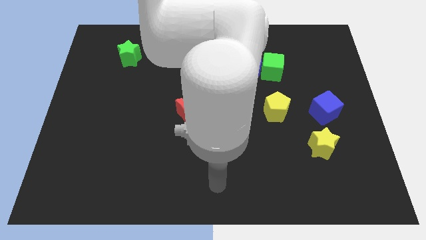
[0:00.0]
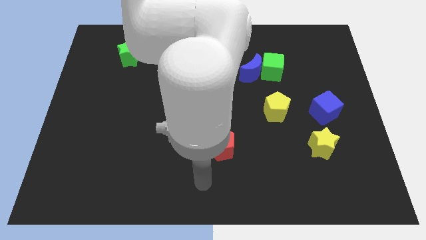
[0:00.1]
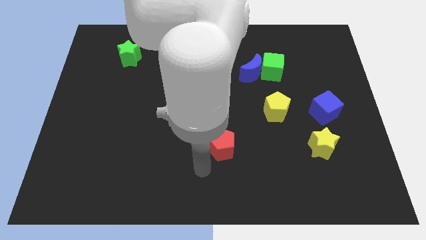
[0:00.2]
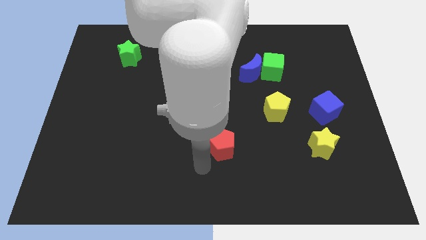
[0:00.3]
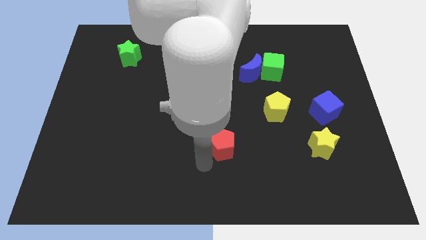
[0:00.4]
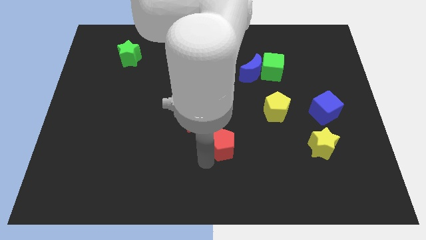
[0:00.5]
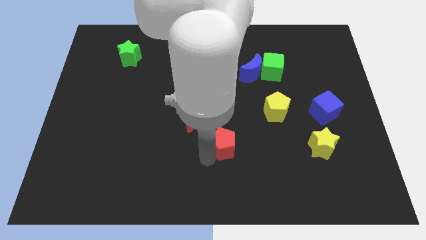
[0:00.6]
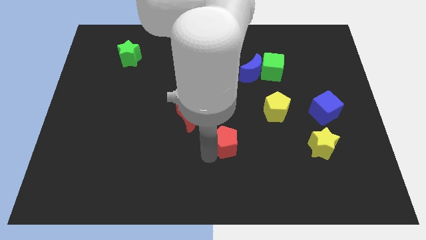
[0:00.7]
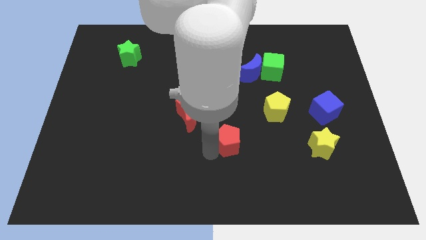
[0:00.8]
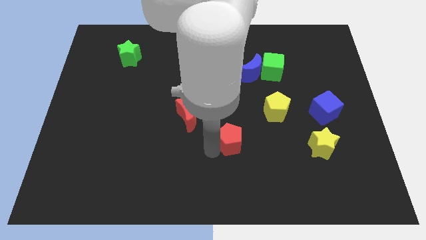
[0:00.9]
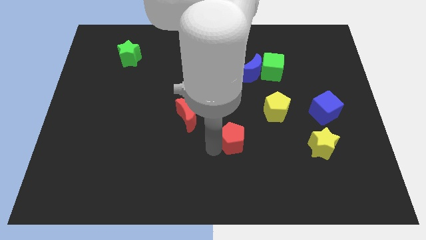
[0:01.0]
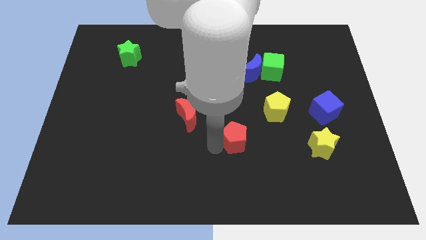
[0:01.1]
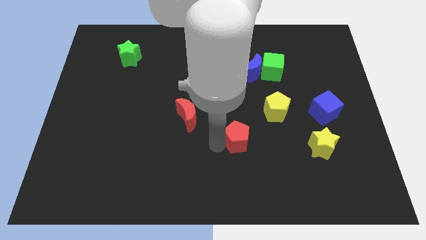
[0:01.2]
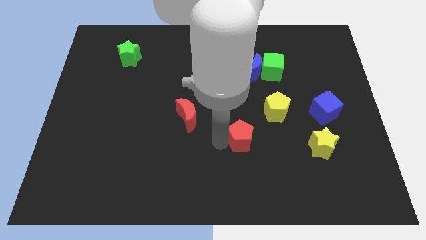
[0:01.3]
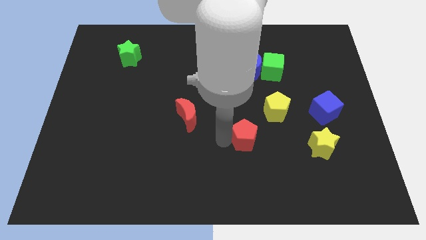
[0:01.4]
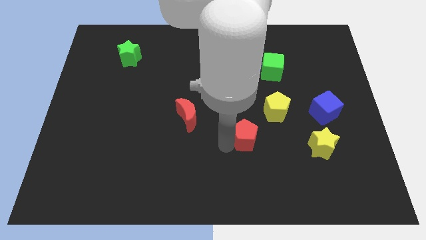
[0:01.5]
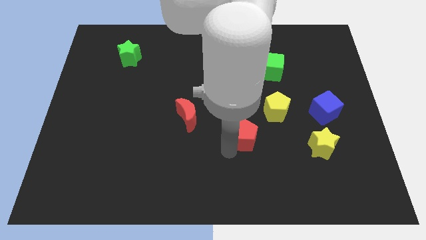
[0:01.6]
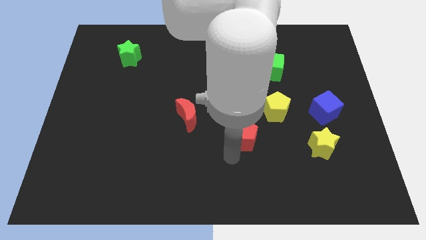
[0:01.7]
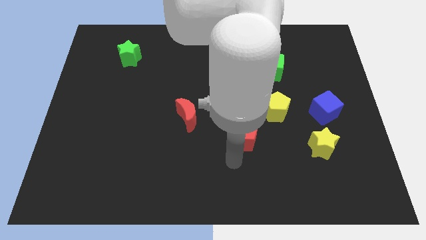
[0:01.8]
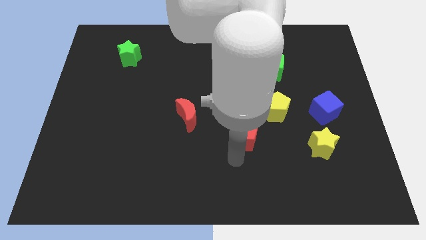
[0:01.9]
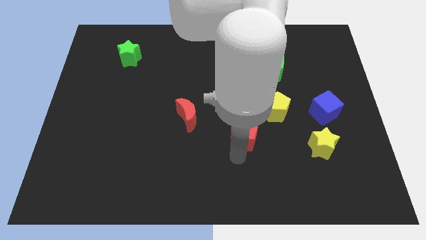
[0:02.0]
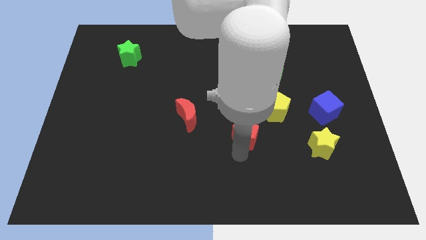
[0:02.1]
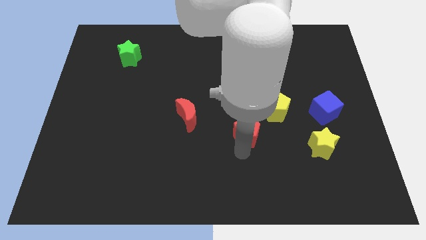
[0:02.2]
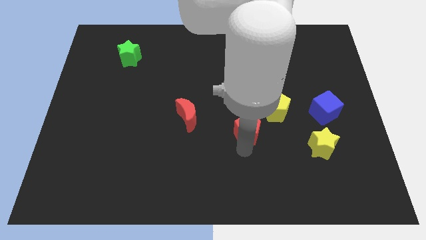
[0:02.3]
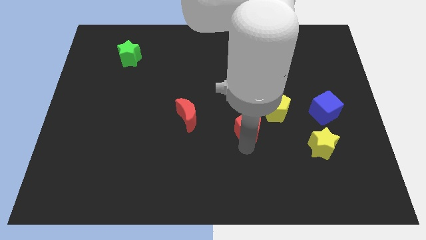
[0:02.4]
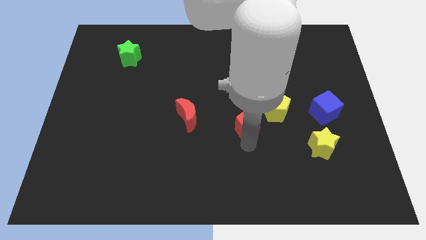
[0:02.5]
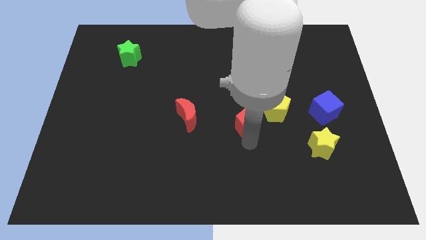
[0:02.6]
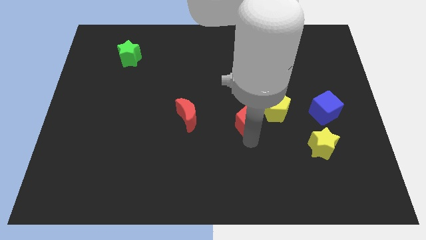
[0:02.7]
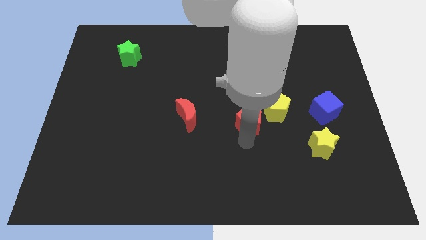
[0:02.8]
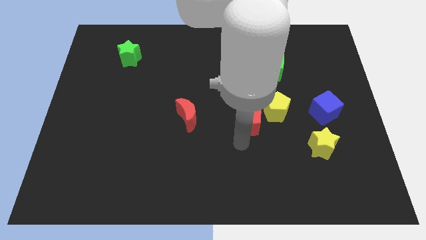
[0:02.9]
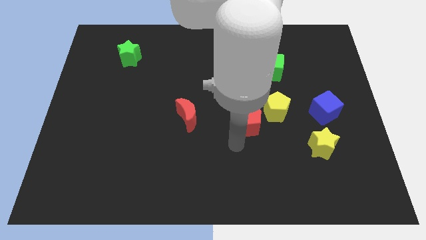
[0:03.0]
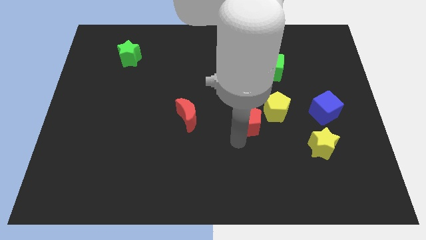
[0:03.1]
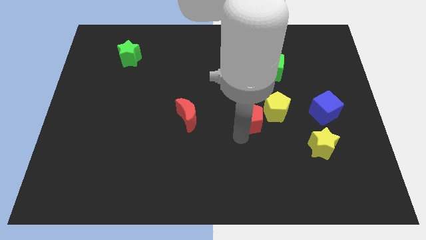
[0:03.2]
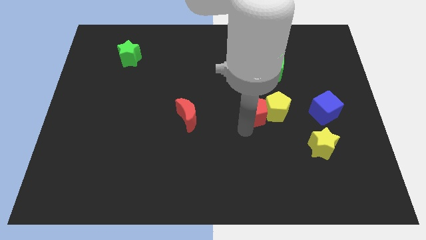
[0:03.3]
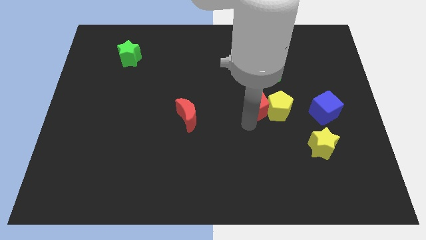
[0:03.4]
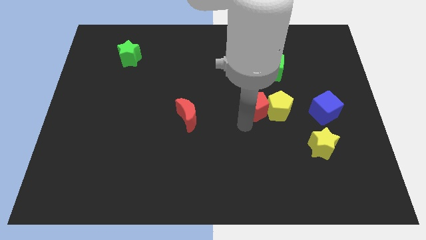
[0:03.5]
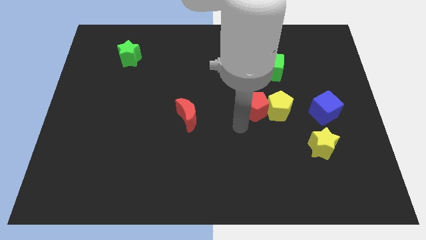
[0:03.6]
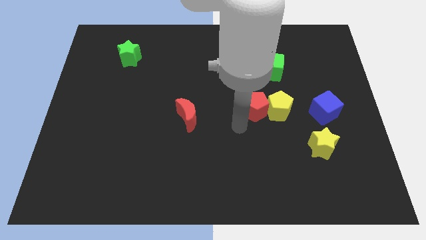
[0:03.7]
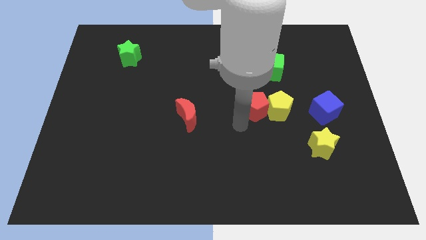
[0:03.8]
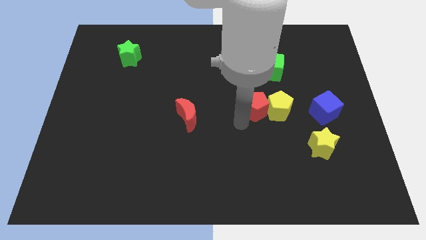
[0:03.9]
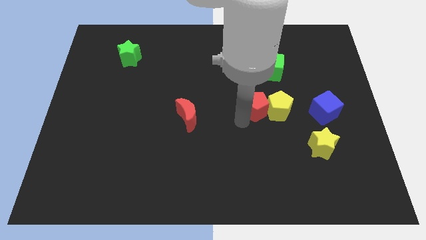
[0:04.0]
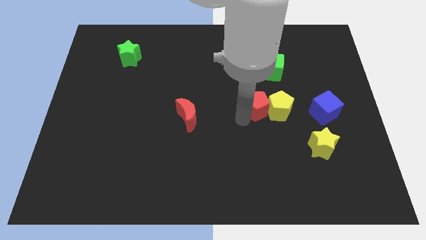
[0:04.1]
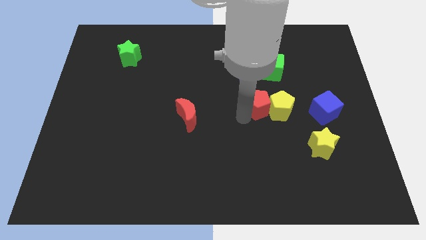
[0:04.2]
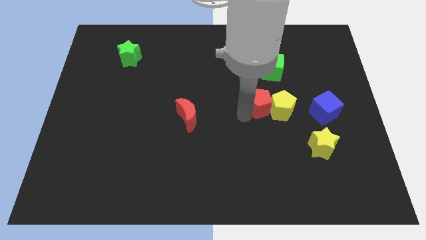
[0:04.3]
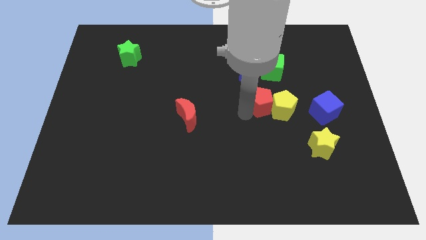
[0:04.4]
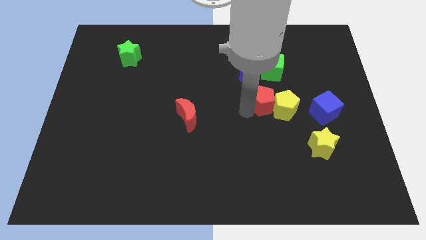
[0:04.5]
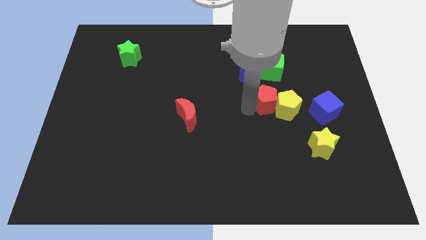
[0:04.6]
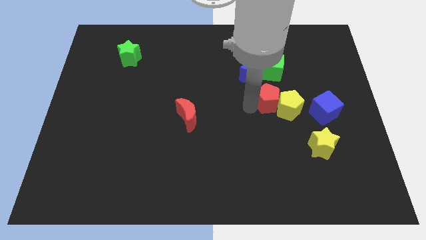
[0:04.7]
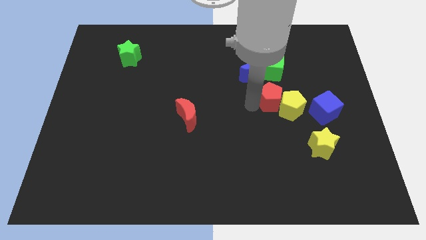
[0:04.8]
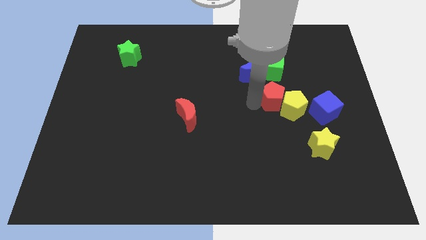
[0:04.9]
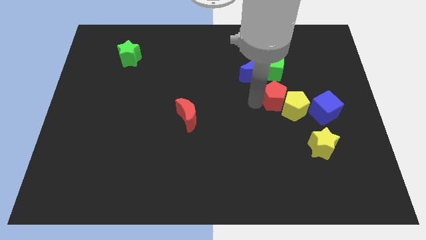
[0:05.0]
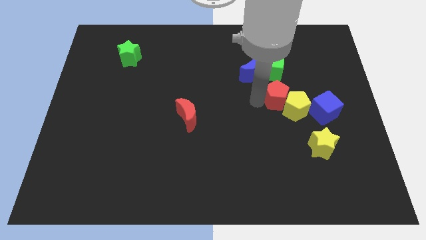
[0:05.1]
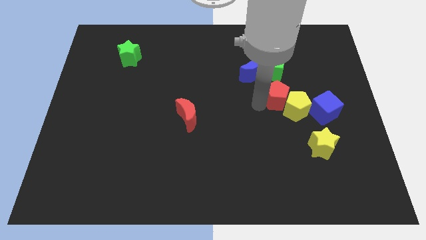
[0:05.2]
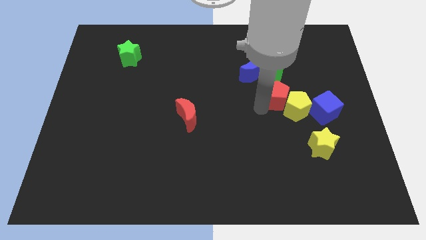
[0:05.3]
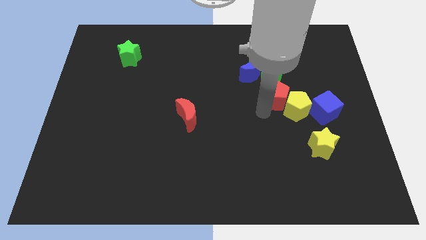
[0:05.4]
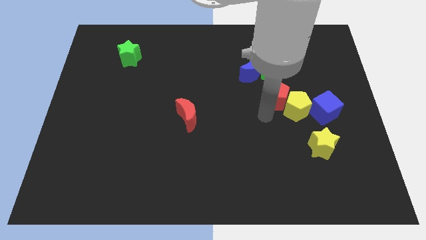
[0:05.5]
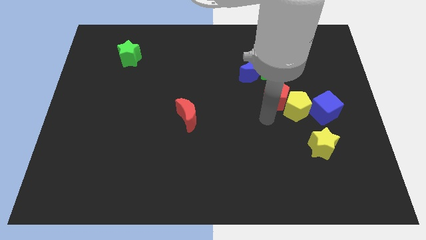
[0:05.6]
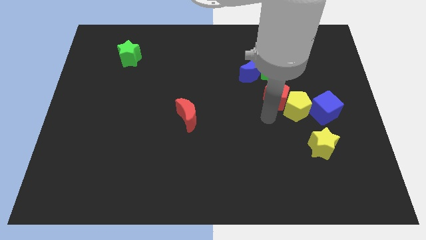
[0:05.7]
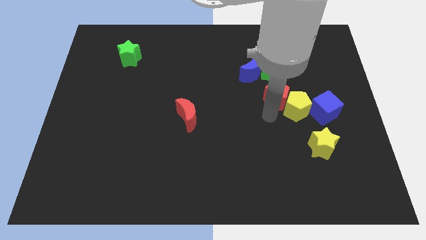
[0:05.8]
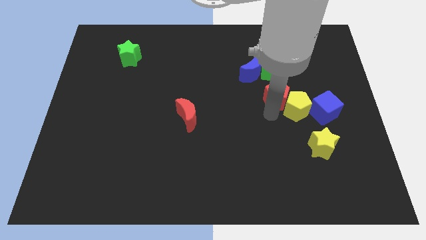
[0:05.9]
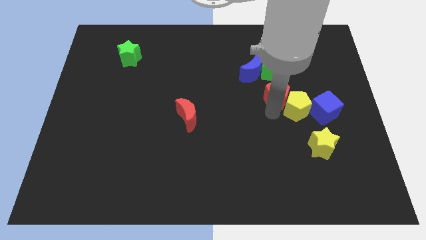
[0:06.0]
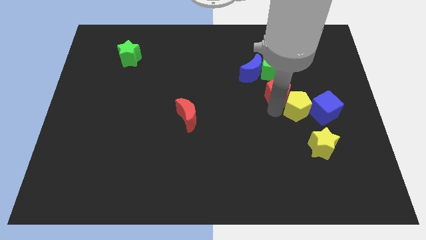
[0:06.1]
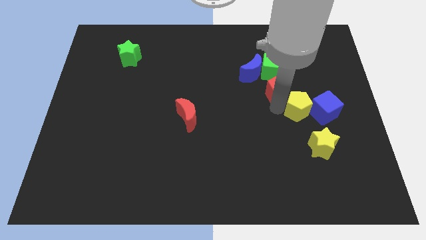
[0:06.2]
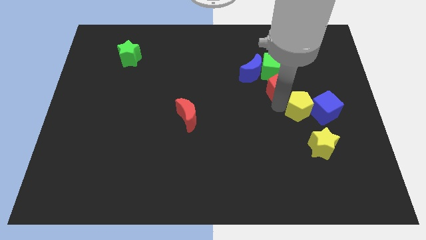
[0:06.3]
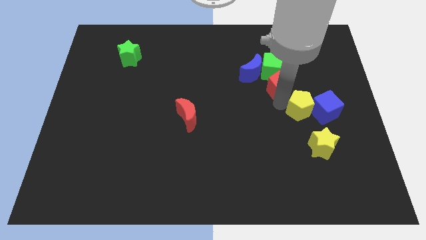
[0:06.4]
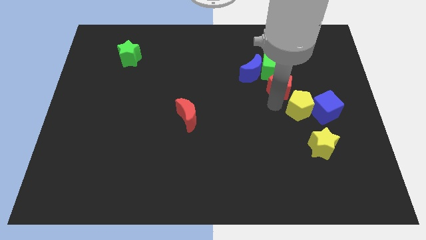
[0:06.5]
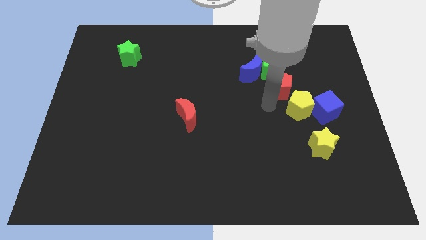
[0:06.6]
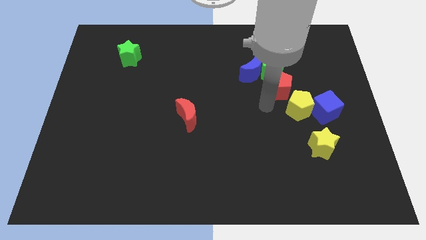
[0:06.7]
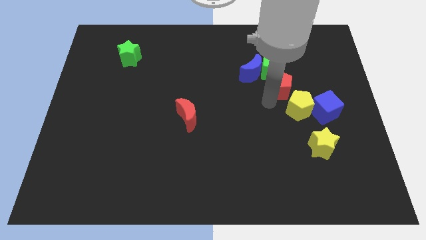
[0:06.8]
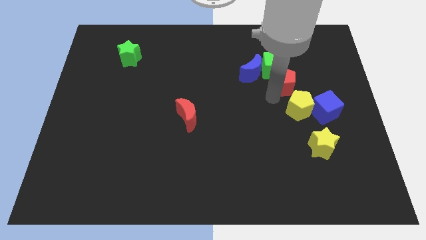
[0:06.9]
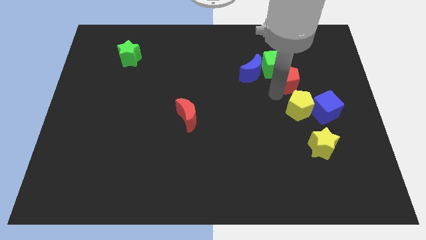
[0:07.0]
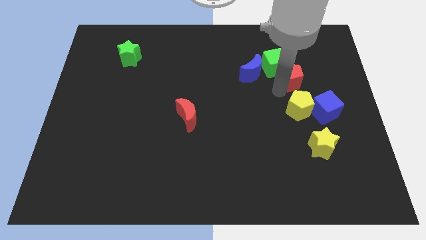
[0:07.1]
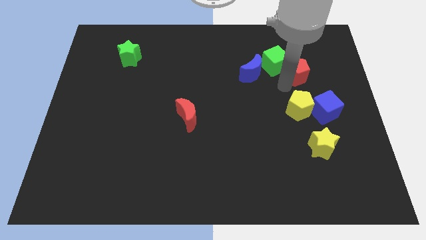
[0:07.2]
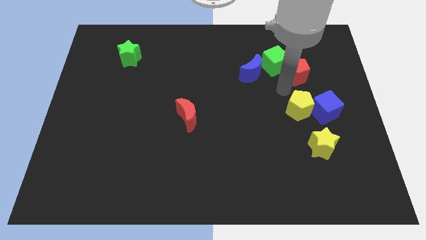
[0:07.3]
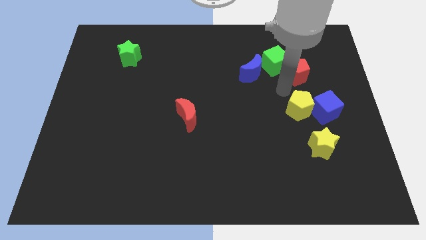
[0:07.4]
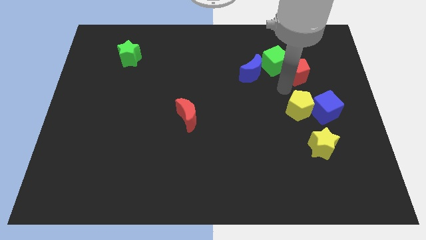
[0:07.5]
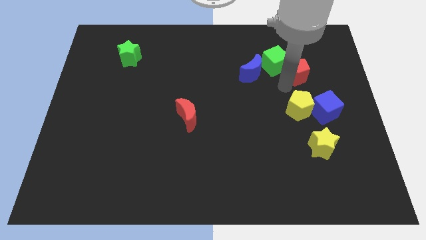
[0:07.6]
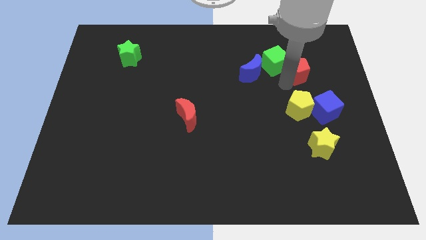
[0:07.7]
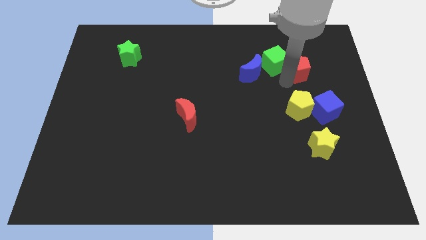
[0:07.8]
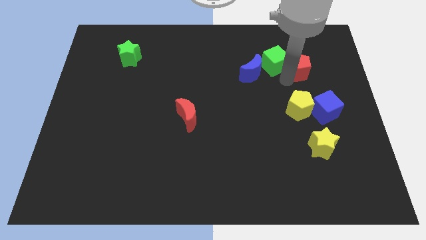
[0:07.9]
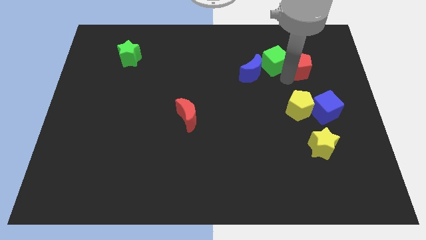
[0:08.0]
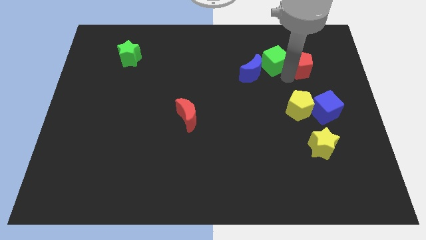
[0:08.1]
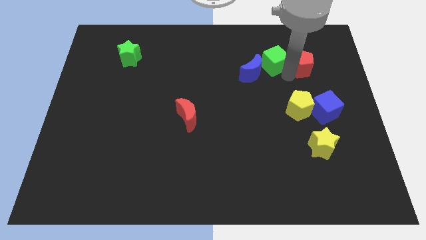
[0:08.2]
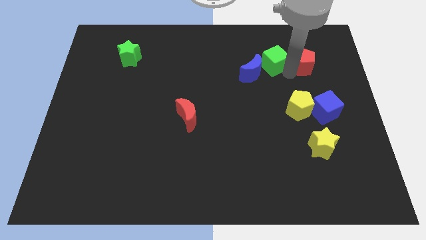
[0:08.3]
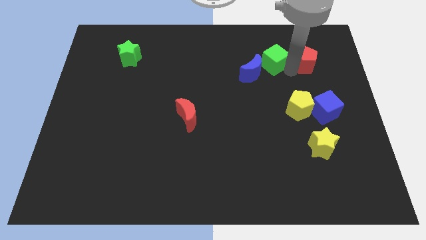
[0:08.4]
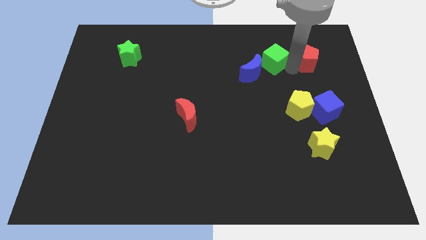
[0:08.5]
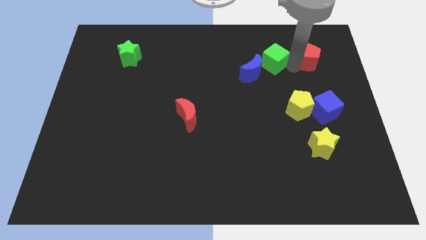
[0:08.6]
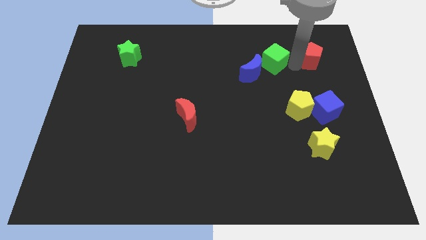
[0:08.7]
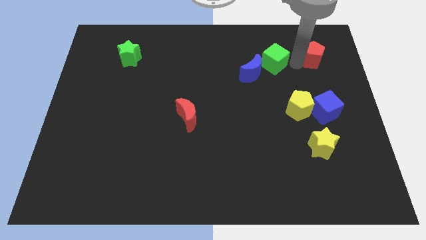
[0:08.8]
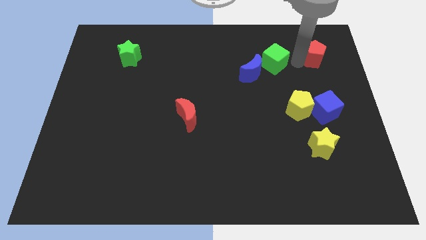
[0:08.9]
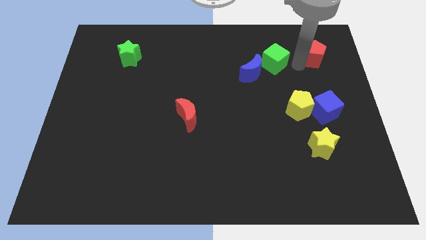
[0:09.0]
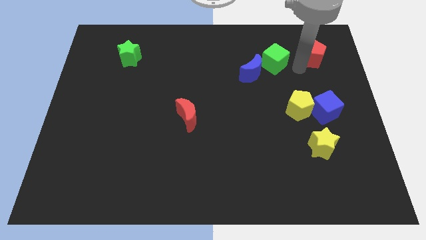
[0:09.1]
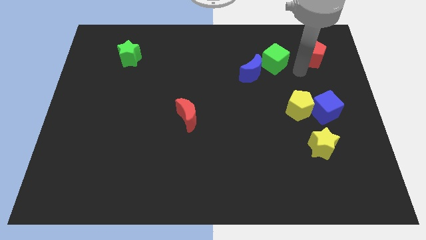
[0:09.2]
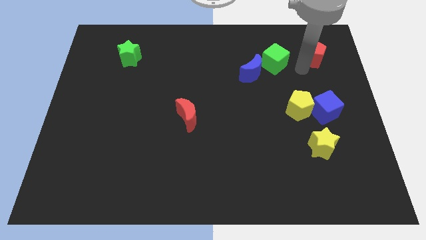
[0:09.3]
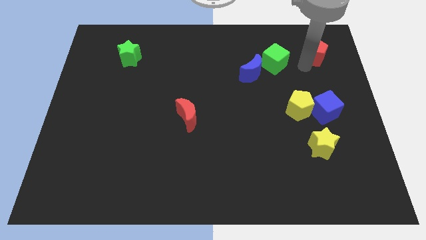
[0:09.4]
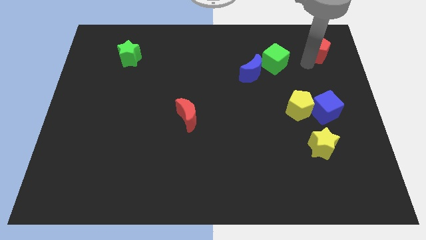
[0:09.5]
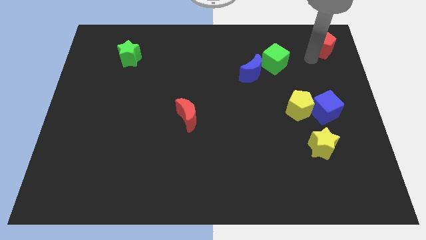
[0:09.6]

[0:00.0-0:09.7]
push the red pentagon to the upper right corner
